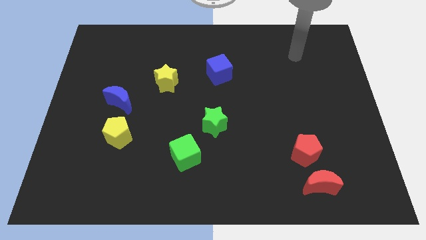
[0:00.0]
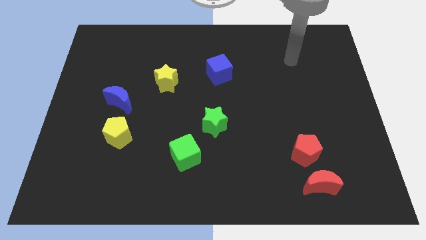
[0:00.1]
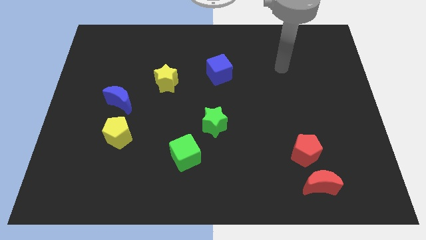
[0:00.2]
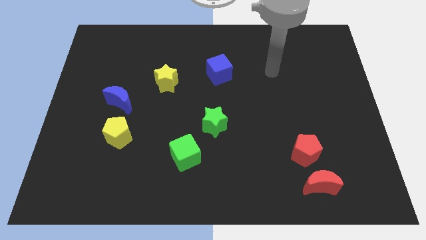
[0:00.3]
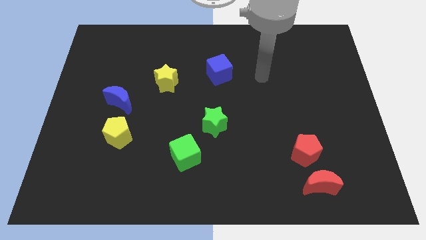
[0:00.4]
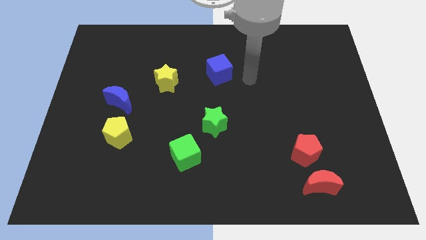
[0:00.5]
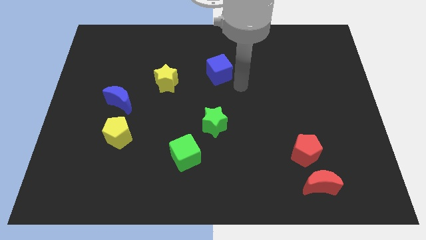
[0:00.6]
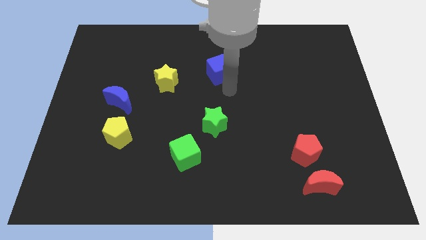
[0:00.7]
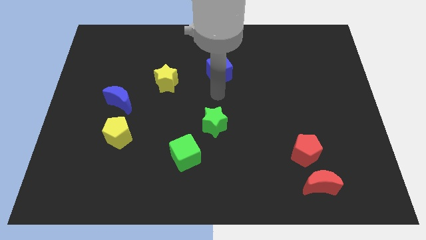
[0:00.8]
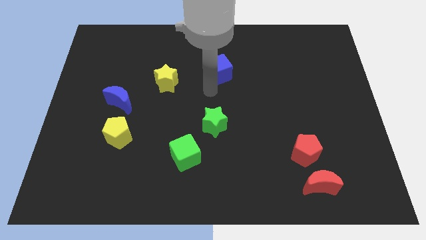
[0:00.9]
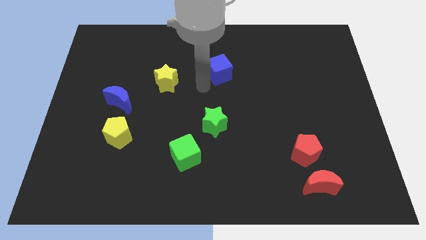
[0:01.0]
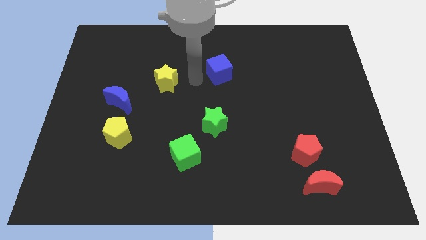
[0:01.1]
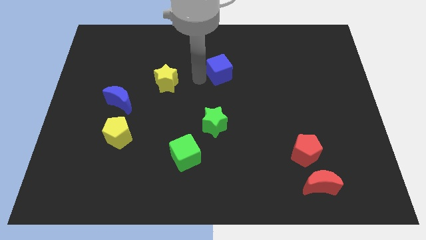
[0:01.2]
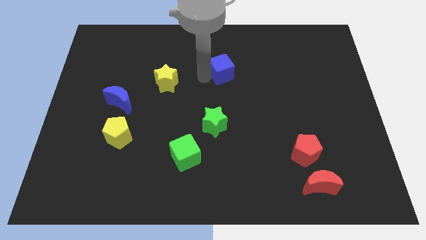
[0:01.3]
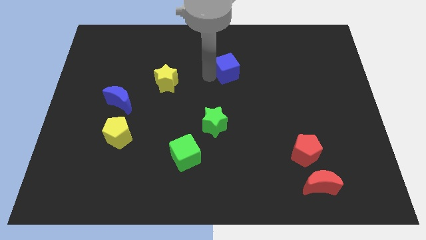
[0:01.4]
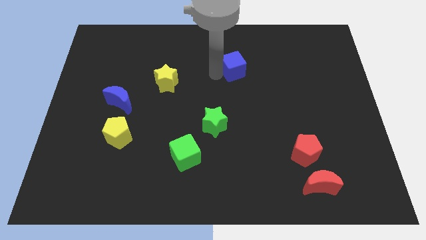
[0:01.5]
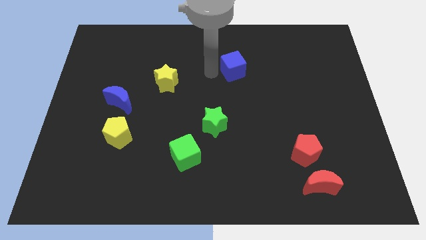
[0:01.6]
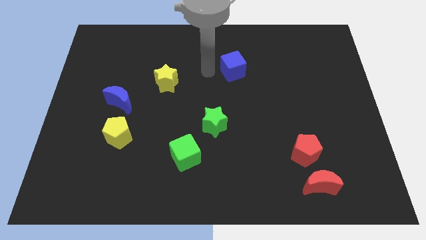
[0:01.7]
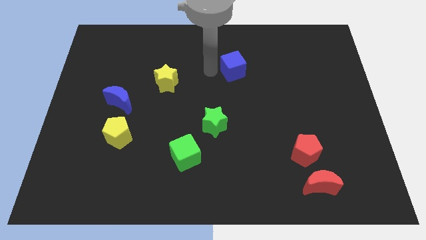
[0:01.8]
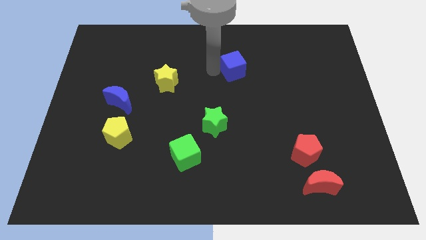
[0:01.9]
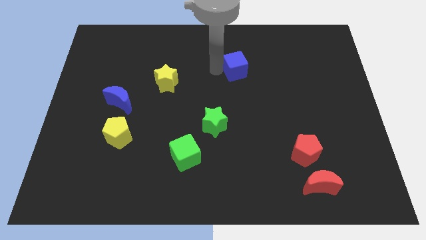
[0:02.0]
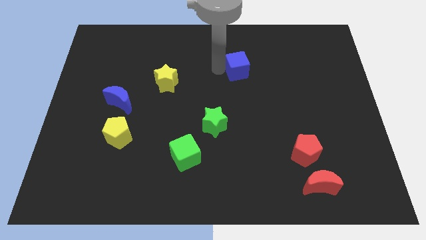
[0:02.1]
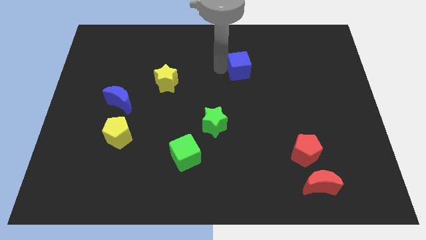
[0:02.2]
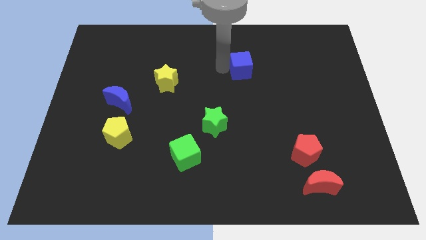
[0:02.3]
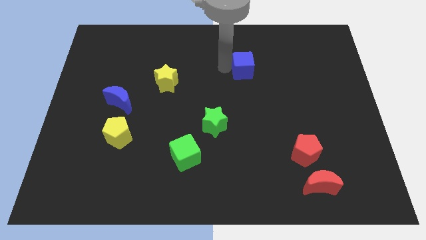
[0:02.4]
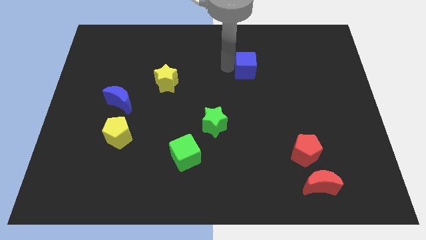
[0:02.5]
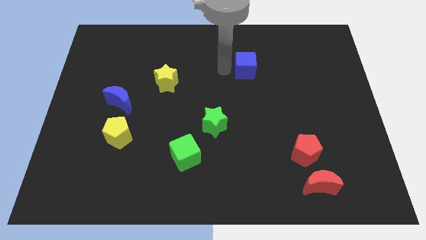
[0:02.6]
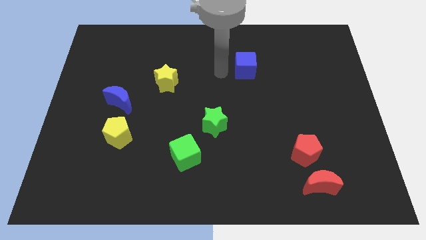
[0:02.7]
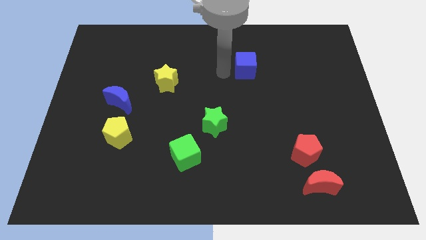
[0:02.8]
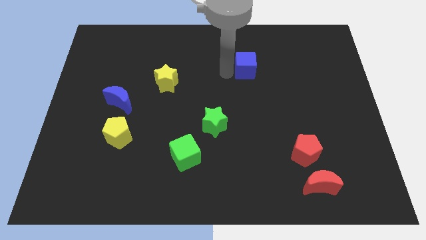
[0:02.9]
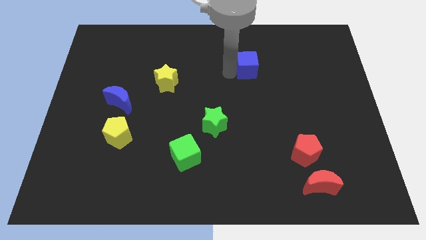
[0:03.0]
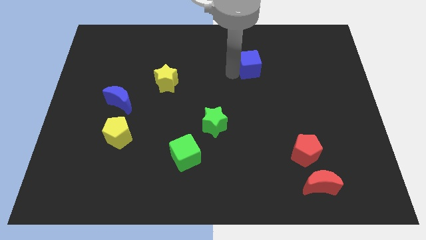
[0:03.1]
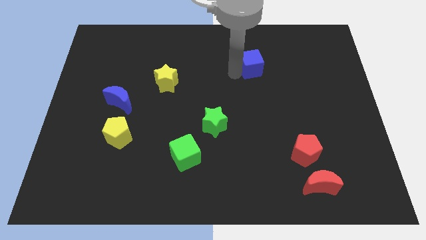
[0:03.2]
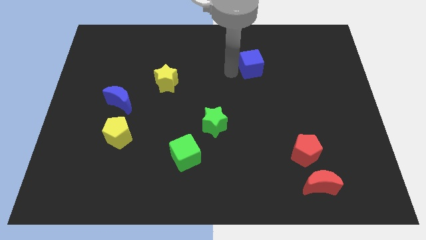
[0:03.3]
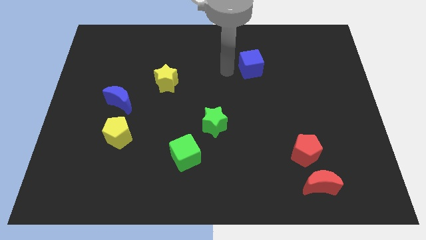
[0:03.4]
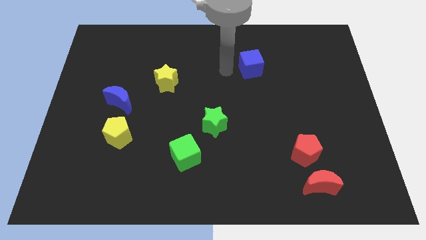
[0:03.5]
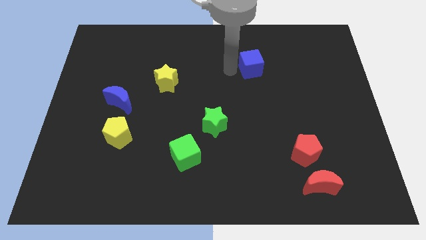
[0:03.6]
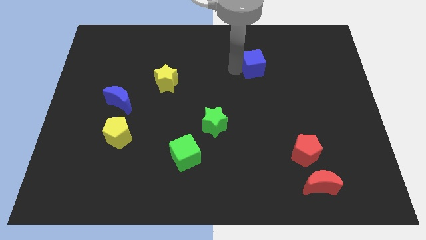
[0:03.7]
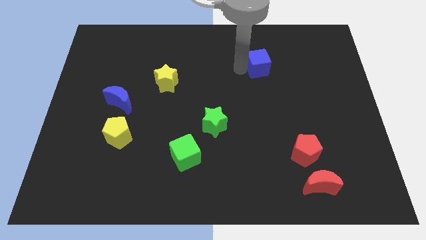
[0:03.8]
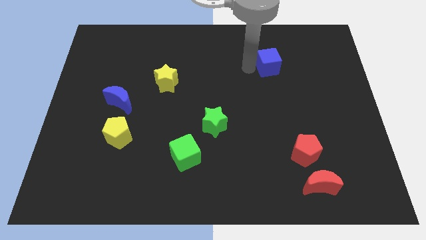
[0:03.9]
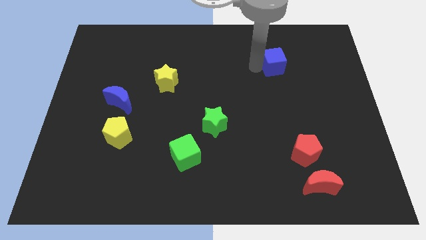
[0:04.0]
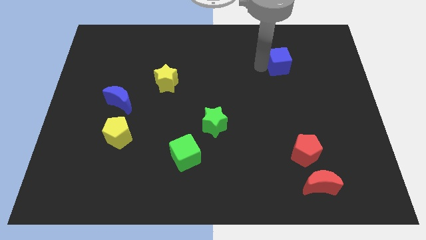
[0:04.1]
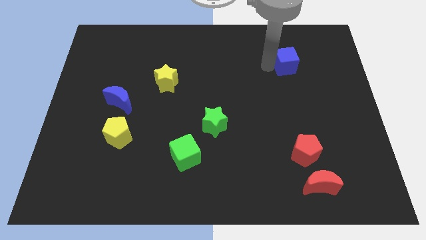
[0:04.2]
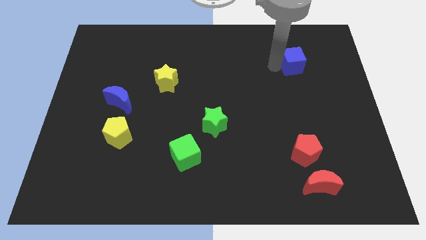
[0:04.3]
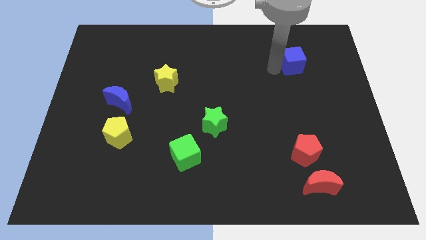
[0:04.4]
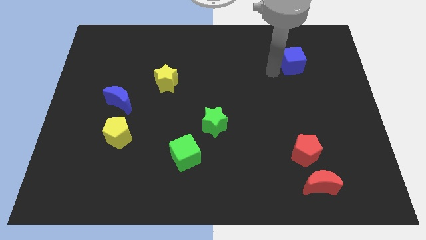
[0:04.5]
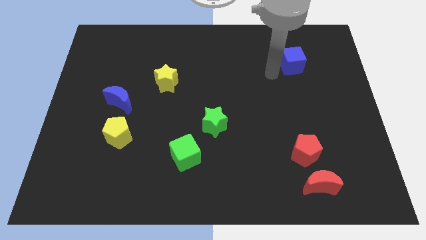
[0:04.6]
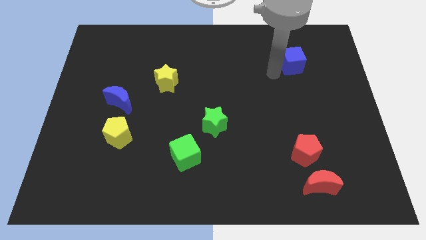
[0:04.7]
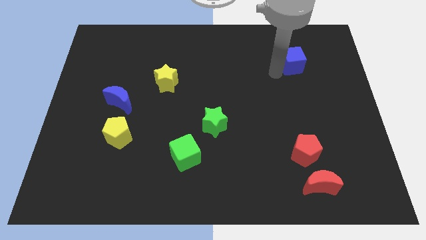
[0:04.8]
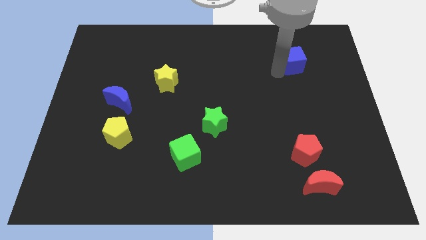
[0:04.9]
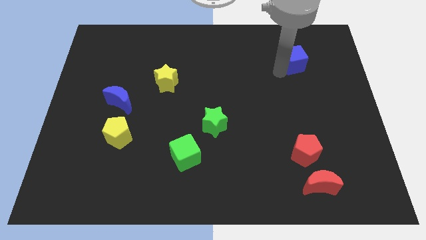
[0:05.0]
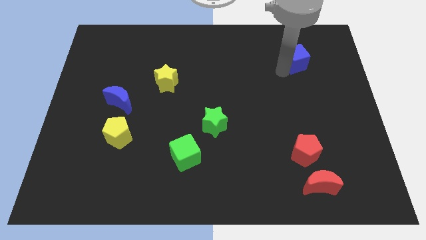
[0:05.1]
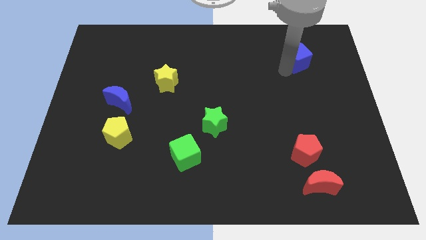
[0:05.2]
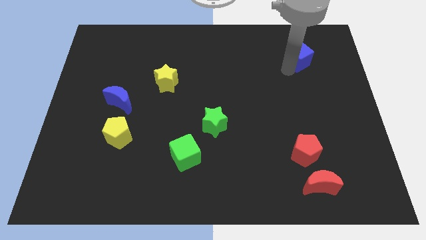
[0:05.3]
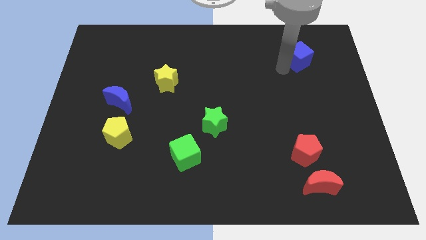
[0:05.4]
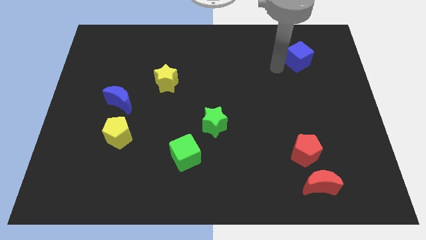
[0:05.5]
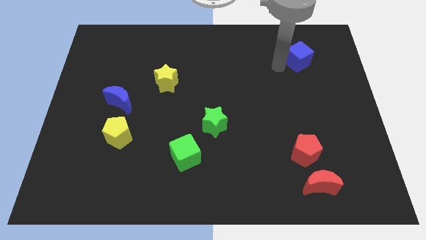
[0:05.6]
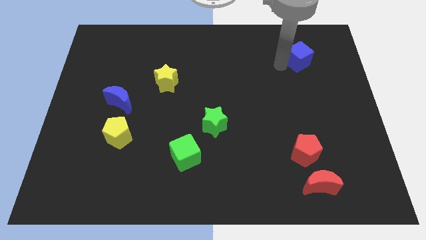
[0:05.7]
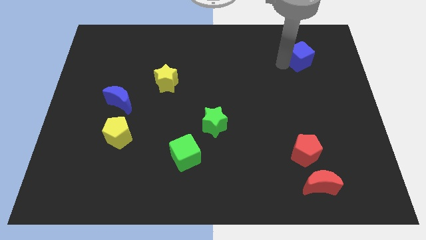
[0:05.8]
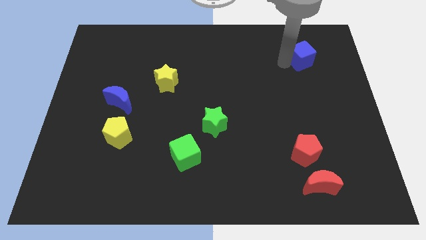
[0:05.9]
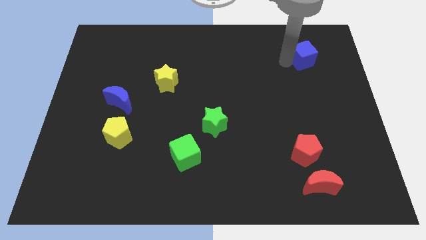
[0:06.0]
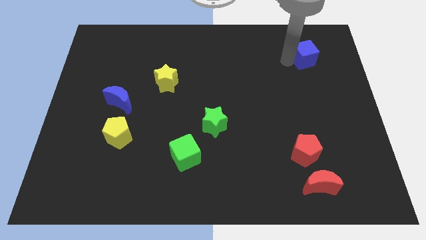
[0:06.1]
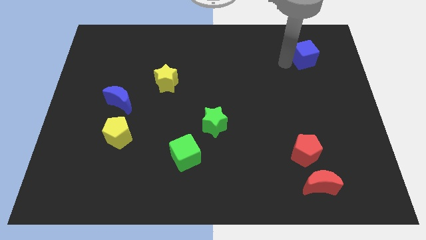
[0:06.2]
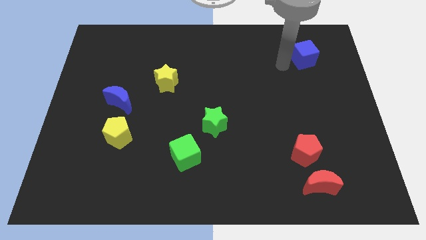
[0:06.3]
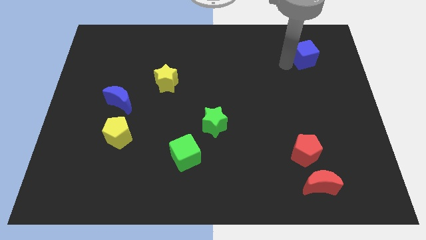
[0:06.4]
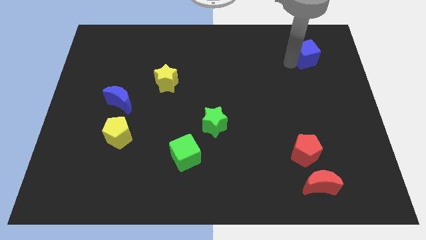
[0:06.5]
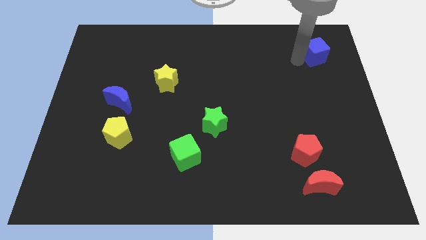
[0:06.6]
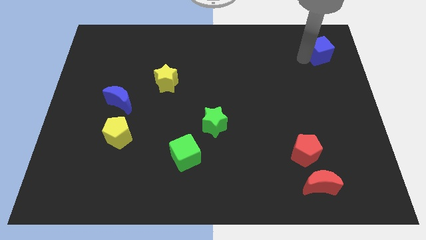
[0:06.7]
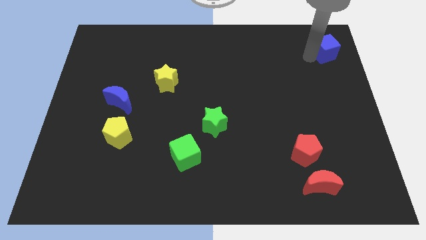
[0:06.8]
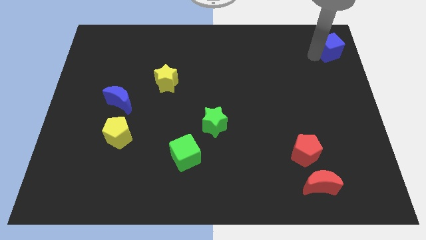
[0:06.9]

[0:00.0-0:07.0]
slide the blue cube to the top right
